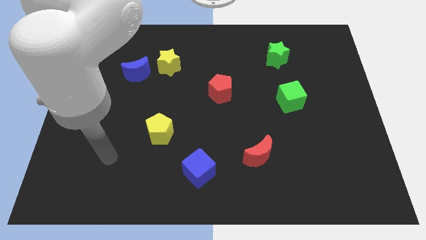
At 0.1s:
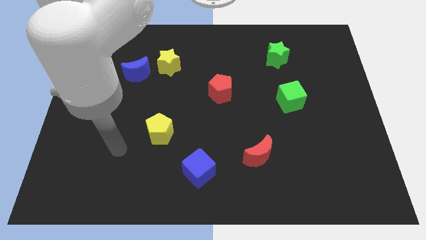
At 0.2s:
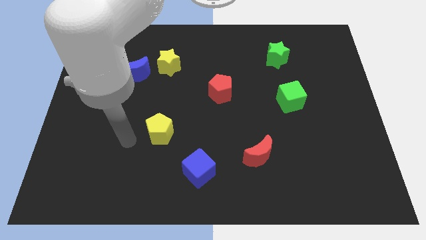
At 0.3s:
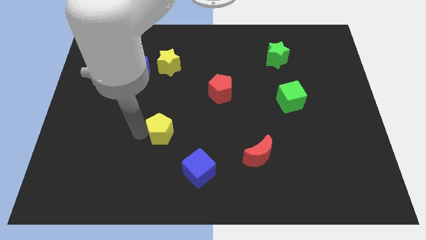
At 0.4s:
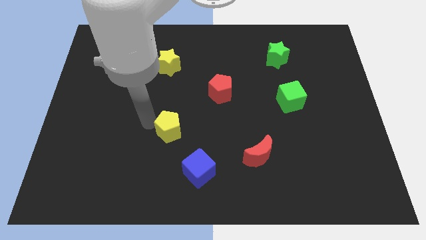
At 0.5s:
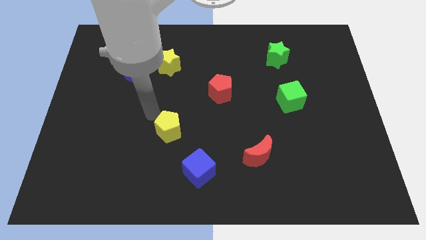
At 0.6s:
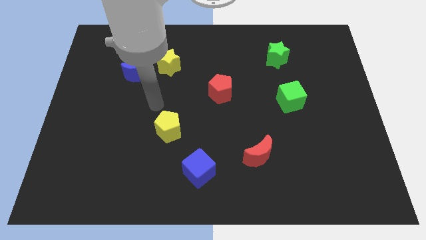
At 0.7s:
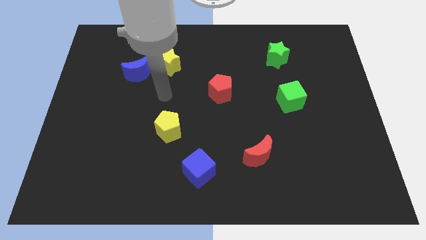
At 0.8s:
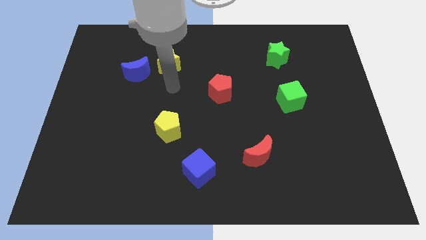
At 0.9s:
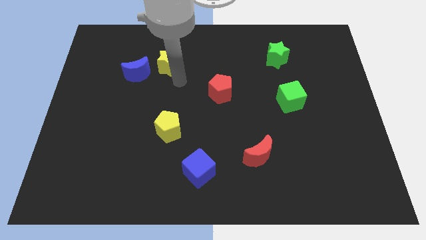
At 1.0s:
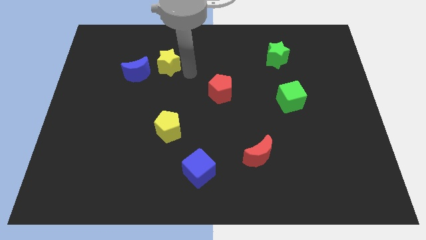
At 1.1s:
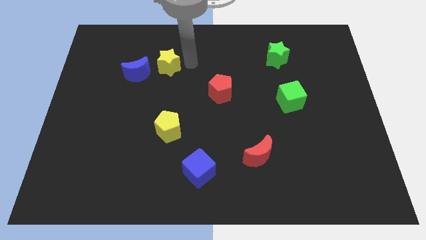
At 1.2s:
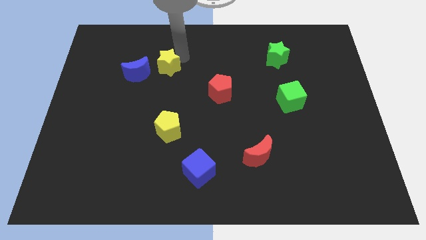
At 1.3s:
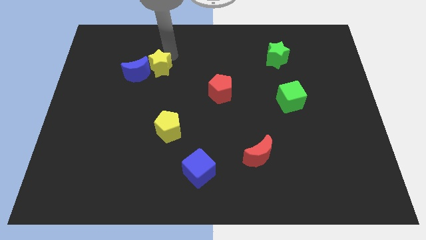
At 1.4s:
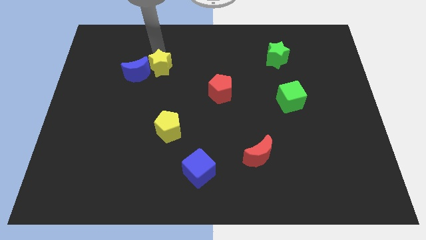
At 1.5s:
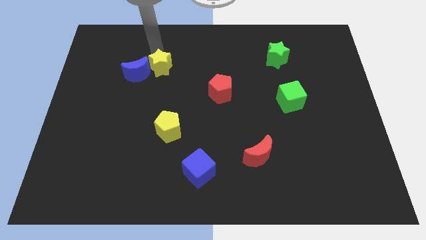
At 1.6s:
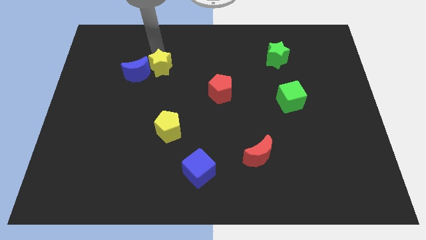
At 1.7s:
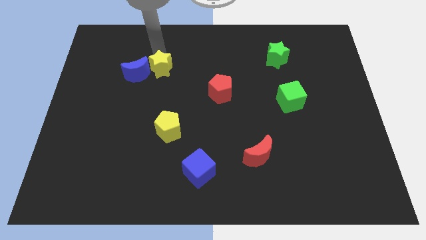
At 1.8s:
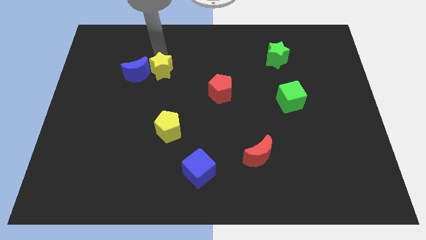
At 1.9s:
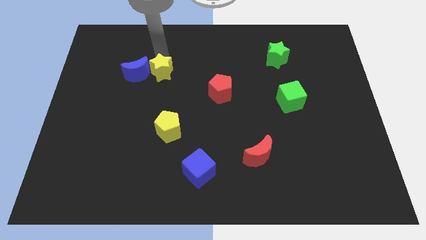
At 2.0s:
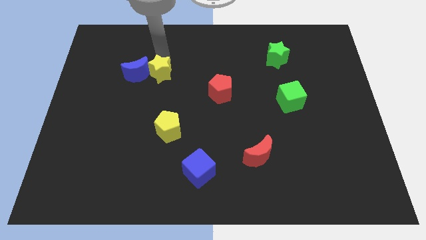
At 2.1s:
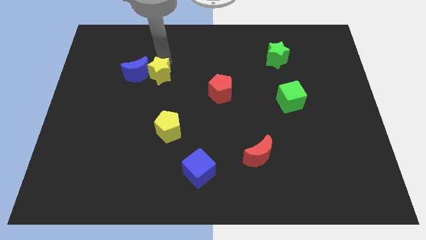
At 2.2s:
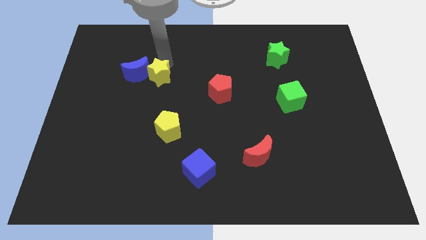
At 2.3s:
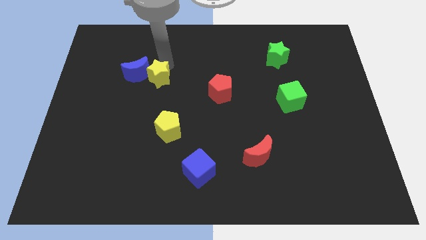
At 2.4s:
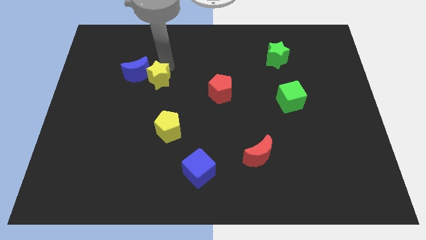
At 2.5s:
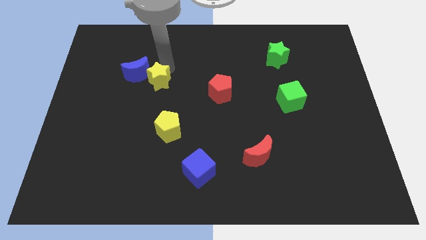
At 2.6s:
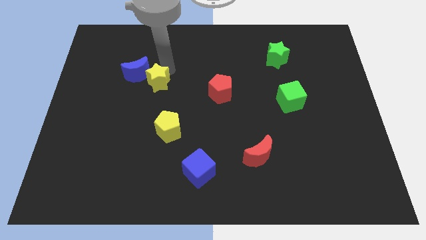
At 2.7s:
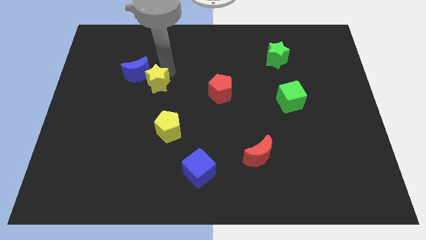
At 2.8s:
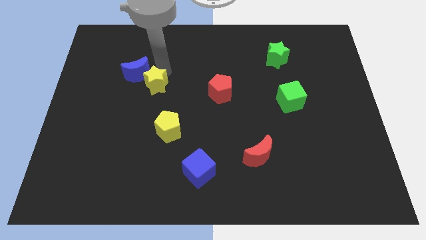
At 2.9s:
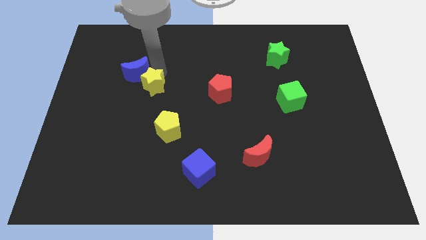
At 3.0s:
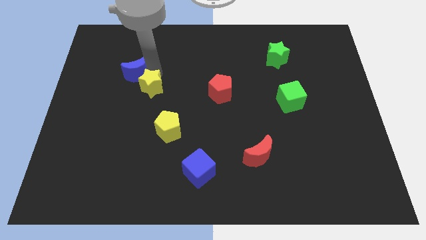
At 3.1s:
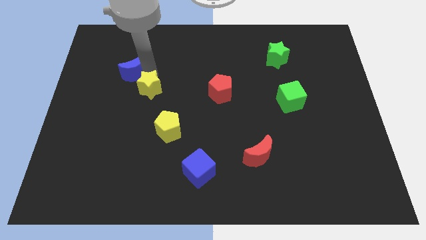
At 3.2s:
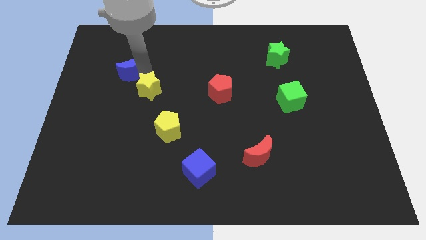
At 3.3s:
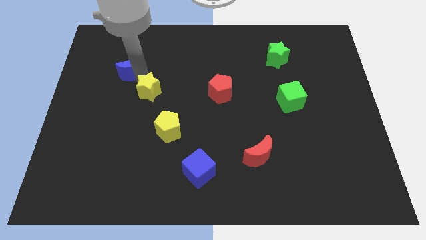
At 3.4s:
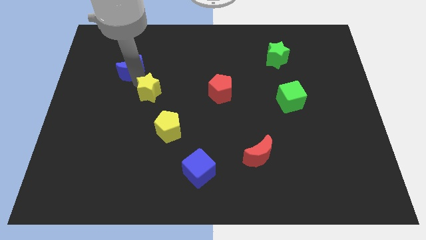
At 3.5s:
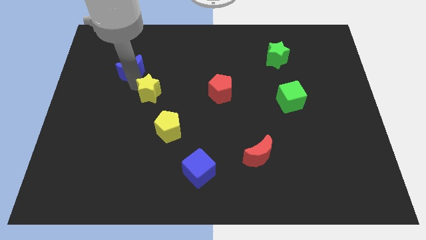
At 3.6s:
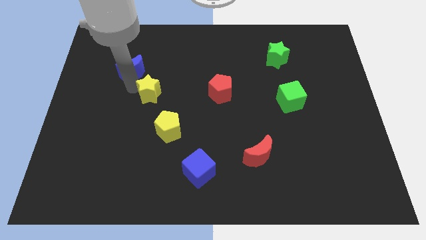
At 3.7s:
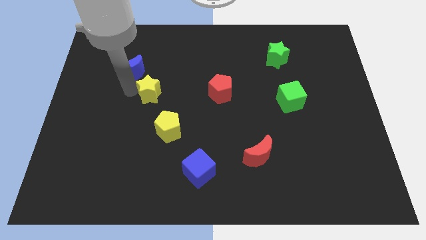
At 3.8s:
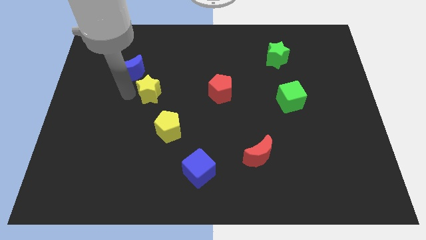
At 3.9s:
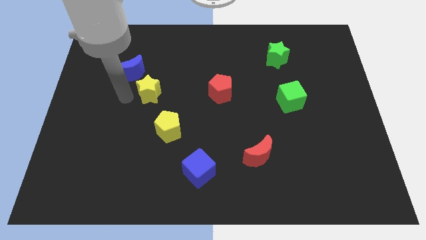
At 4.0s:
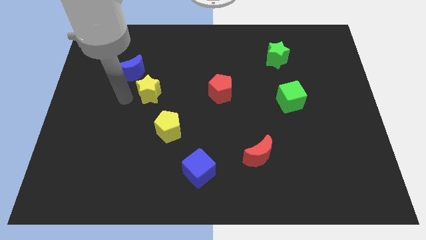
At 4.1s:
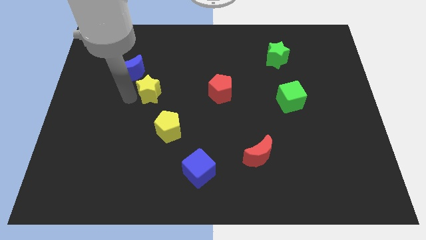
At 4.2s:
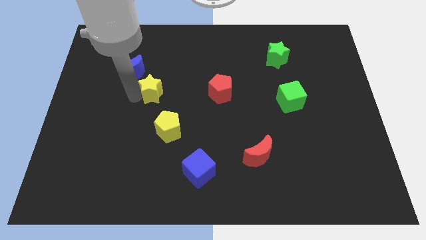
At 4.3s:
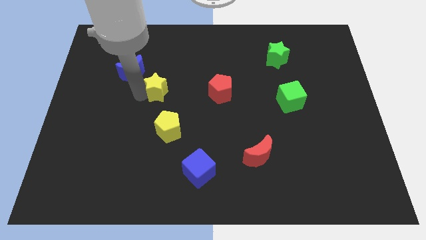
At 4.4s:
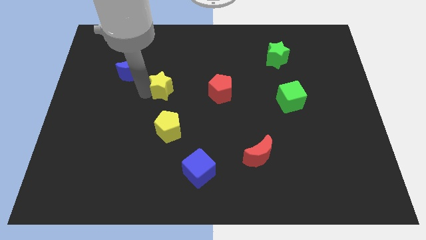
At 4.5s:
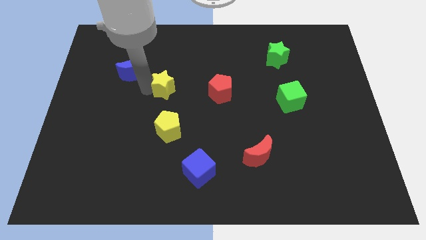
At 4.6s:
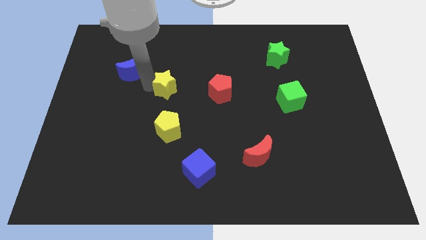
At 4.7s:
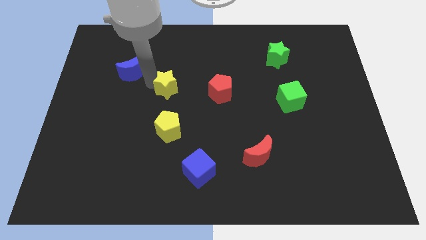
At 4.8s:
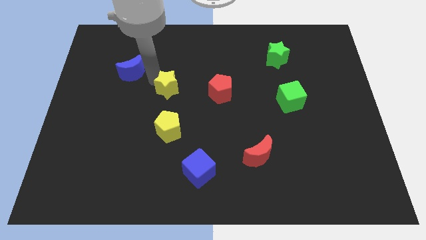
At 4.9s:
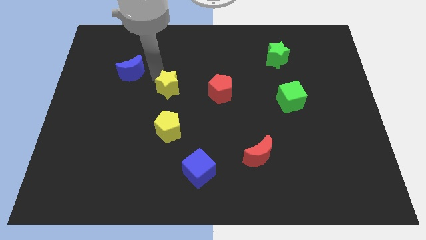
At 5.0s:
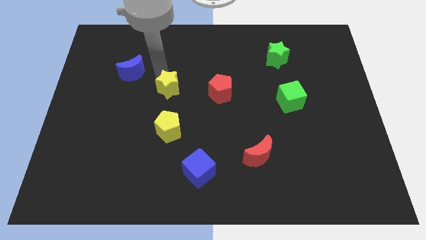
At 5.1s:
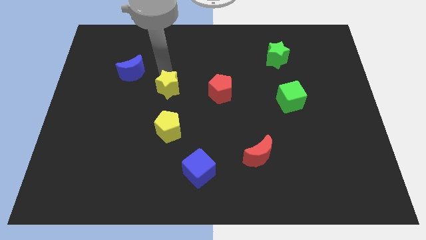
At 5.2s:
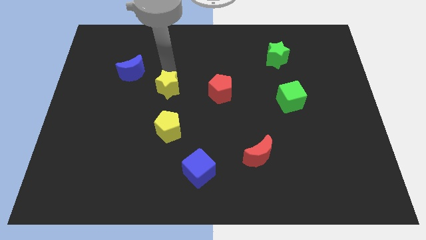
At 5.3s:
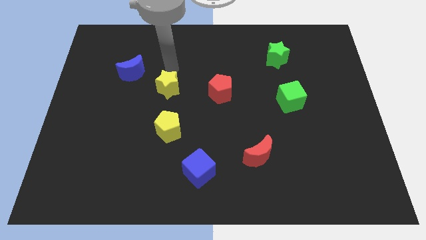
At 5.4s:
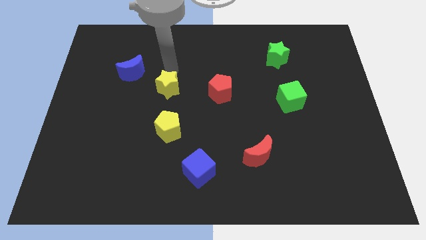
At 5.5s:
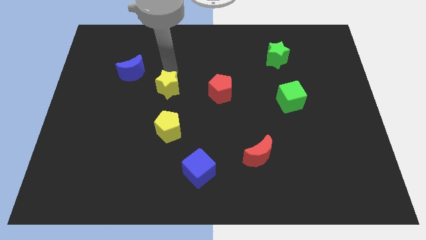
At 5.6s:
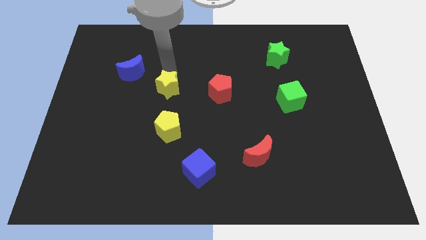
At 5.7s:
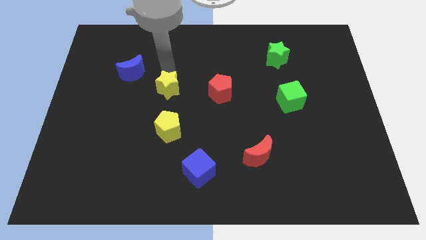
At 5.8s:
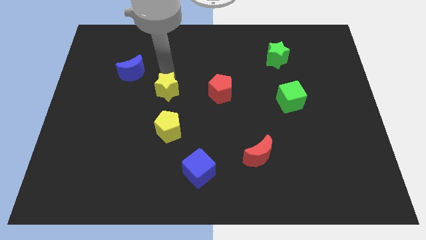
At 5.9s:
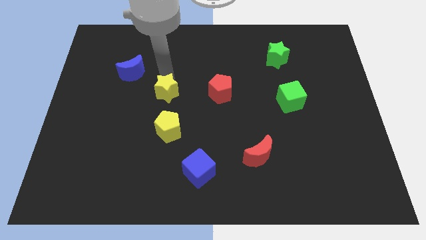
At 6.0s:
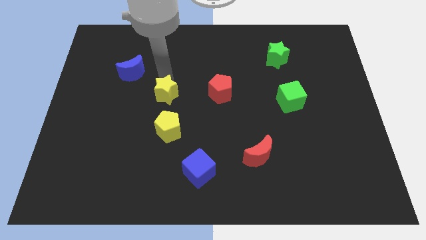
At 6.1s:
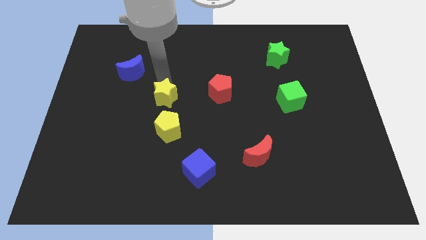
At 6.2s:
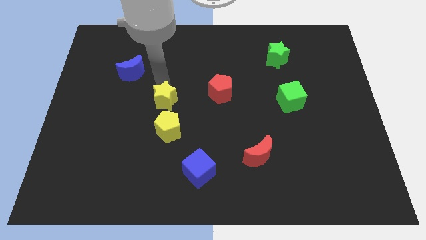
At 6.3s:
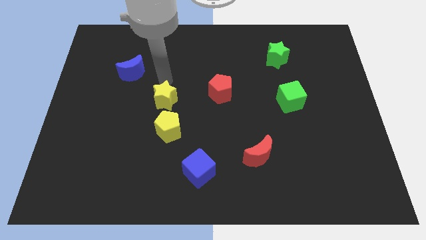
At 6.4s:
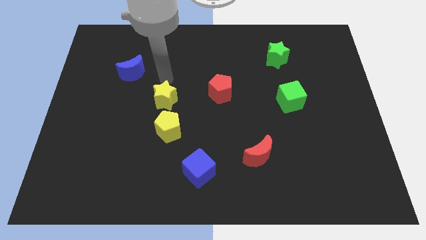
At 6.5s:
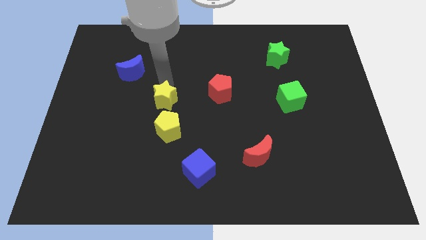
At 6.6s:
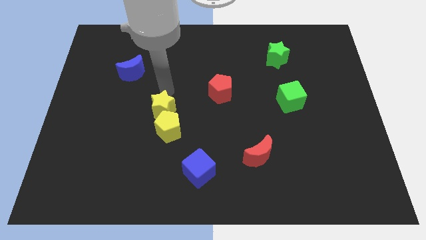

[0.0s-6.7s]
put the yellow star towards the yellow pentagon
